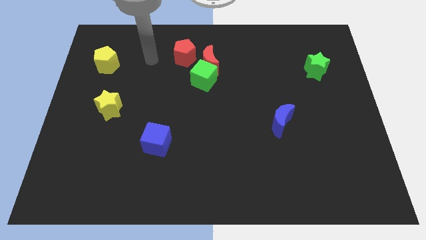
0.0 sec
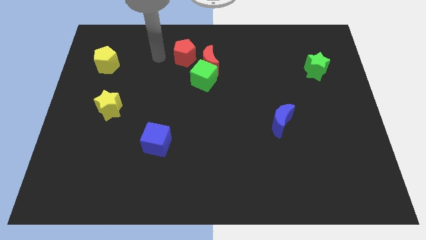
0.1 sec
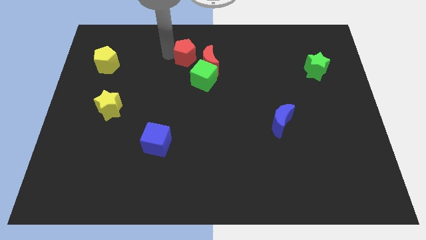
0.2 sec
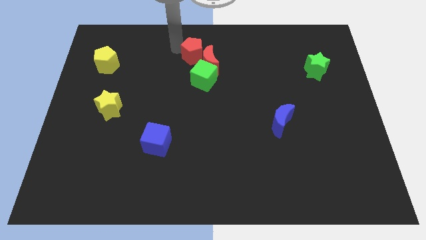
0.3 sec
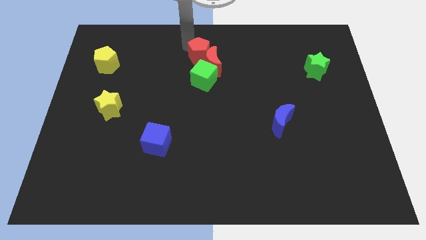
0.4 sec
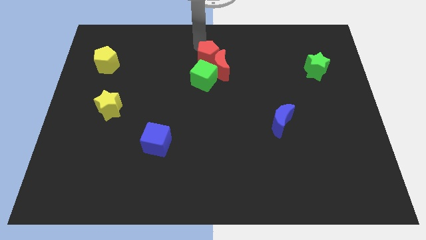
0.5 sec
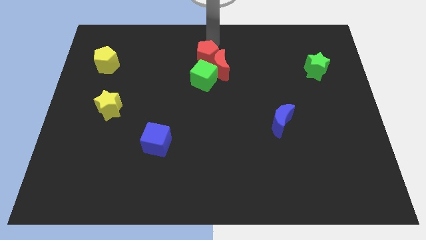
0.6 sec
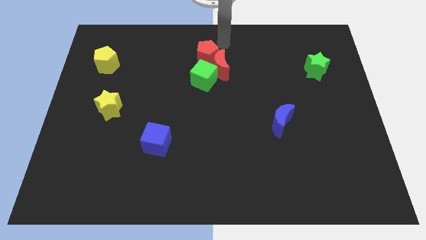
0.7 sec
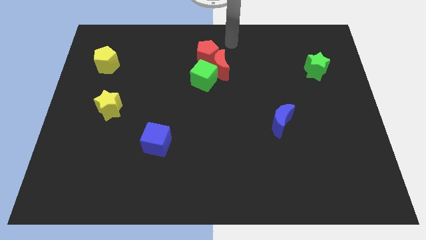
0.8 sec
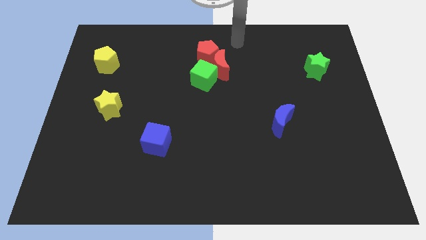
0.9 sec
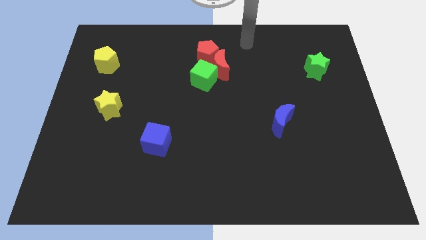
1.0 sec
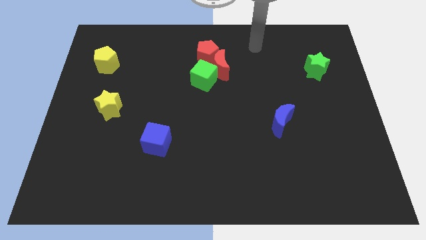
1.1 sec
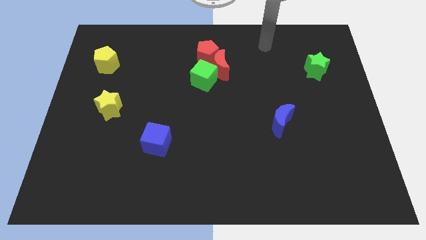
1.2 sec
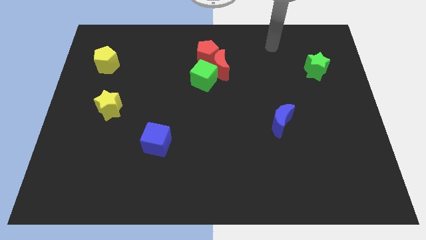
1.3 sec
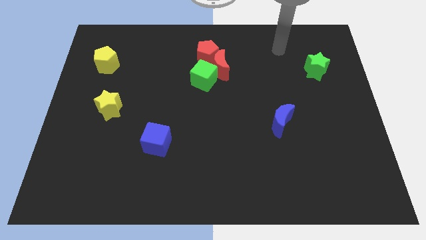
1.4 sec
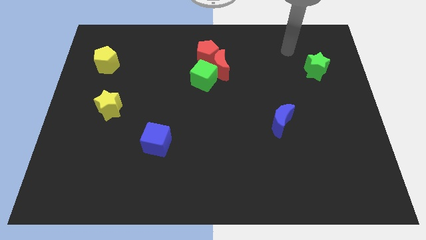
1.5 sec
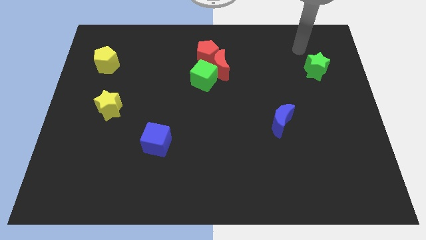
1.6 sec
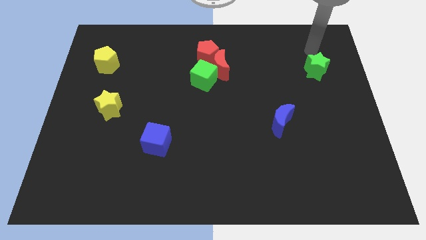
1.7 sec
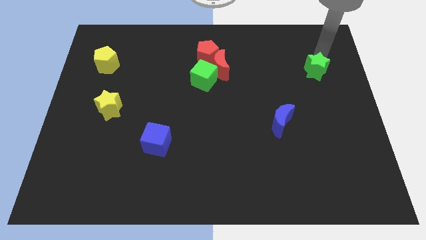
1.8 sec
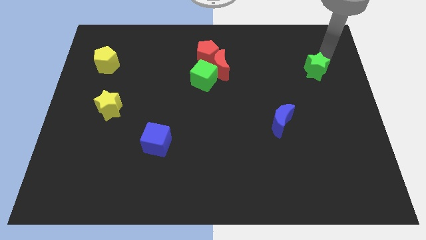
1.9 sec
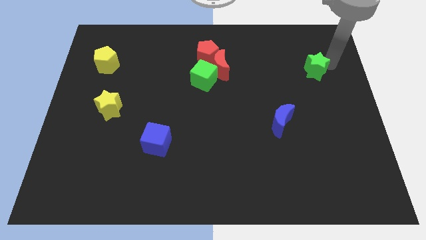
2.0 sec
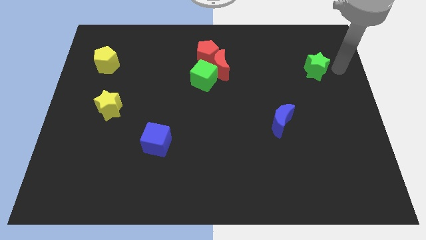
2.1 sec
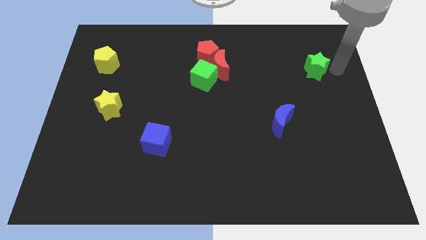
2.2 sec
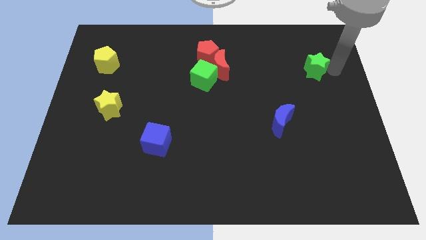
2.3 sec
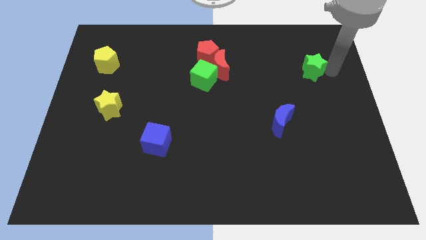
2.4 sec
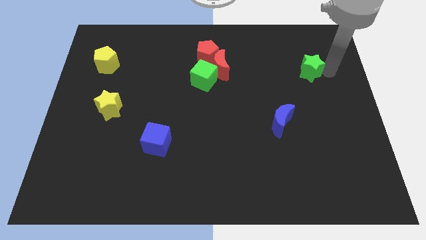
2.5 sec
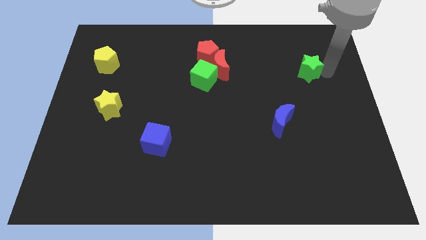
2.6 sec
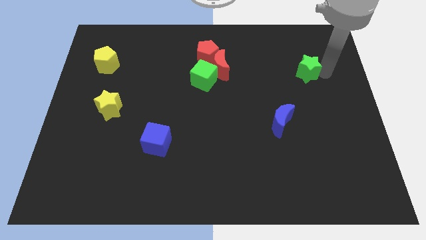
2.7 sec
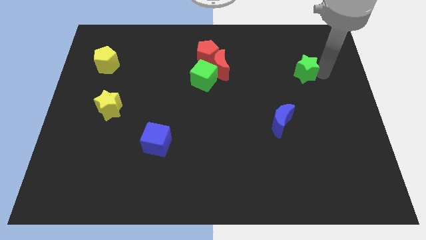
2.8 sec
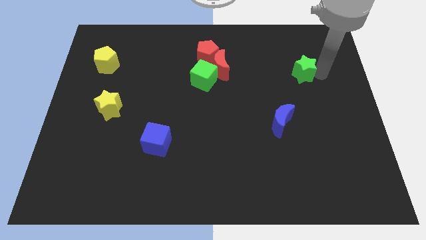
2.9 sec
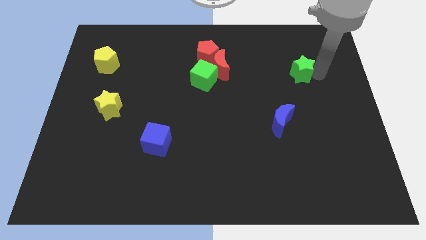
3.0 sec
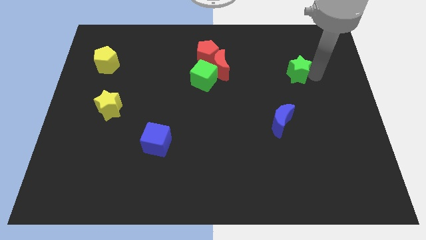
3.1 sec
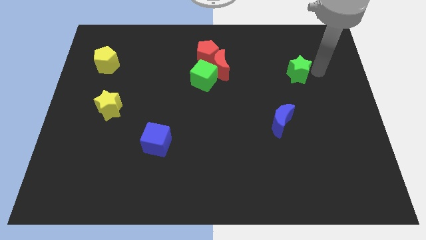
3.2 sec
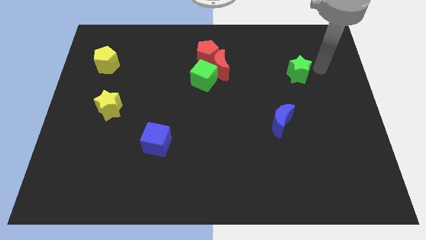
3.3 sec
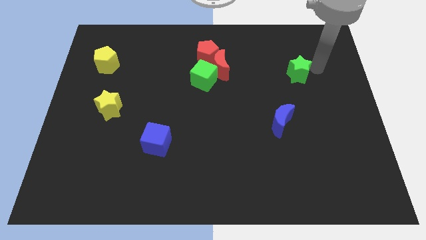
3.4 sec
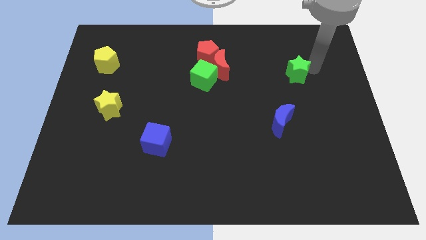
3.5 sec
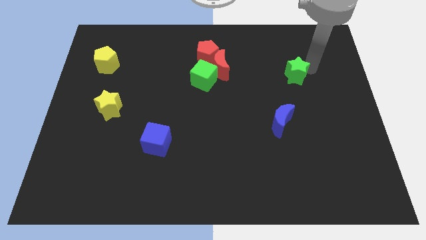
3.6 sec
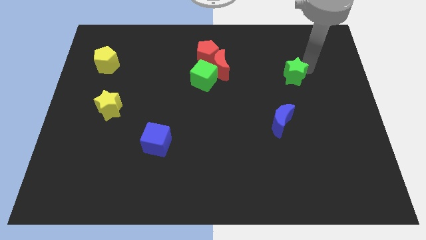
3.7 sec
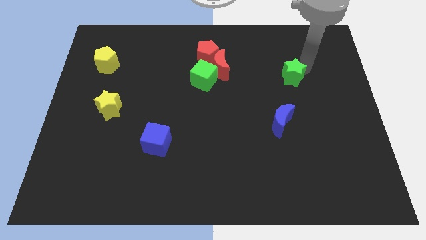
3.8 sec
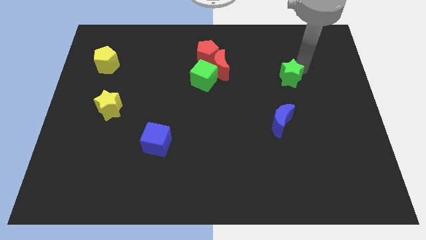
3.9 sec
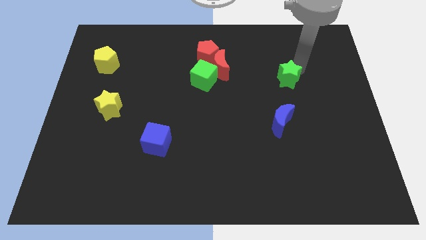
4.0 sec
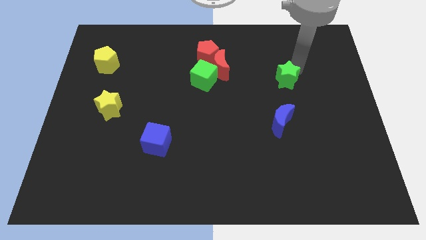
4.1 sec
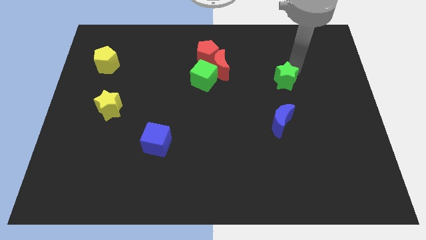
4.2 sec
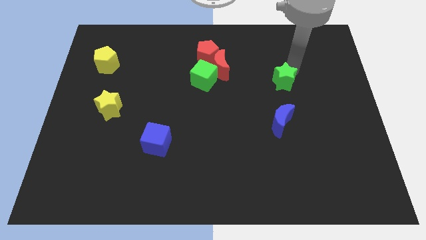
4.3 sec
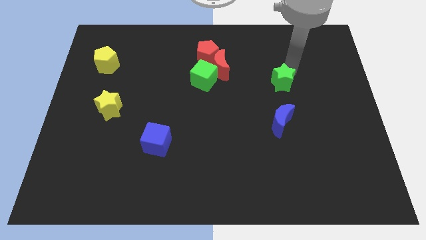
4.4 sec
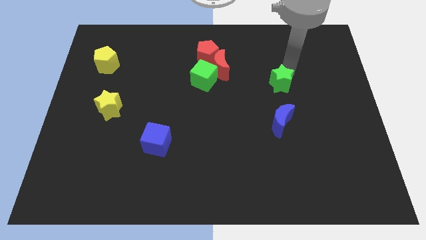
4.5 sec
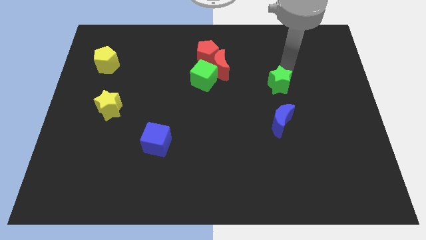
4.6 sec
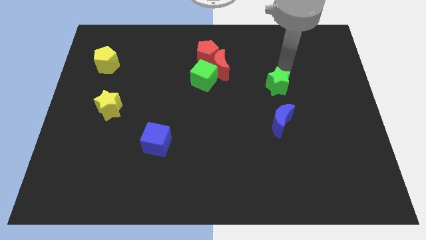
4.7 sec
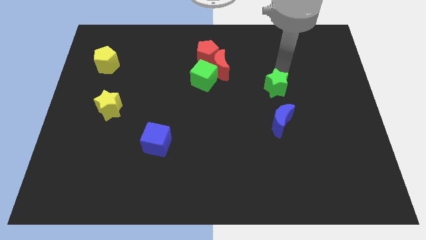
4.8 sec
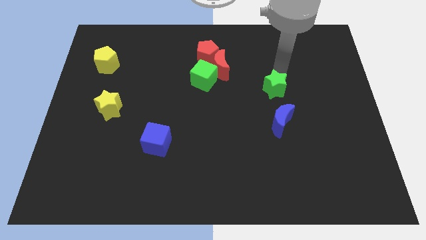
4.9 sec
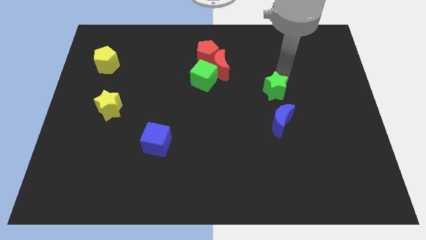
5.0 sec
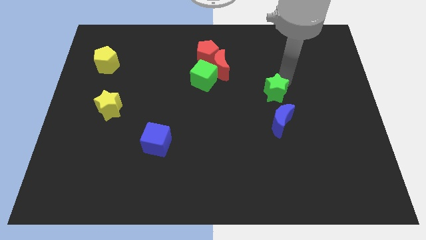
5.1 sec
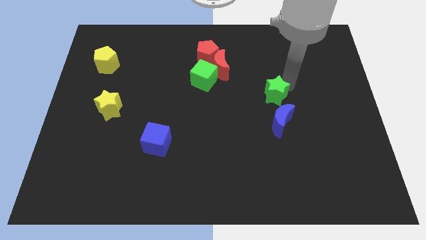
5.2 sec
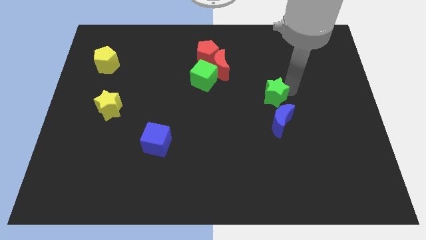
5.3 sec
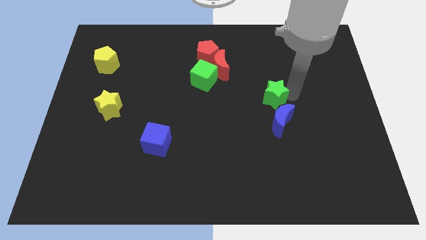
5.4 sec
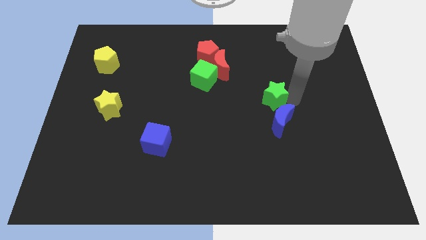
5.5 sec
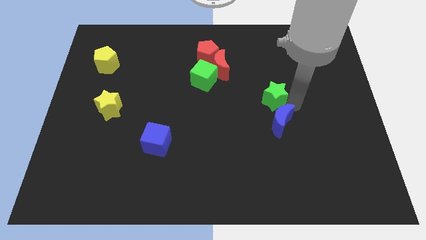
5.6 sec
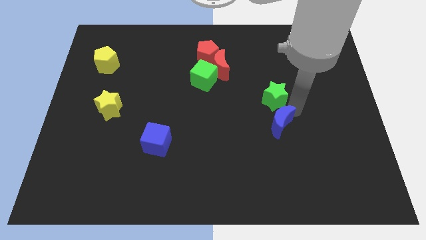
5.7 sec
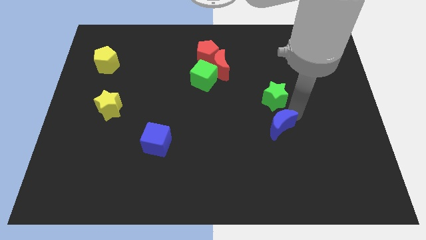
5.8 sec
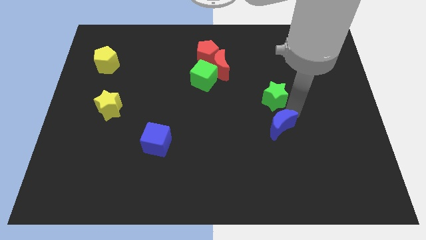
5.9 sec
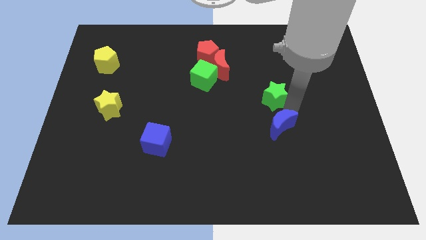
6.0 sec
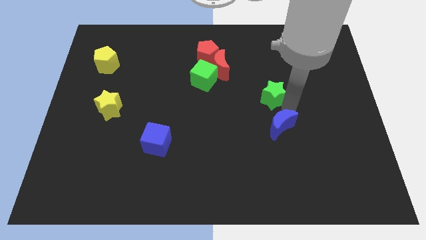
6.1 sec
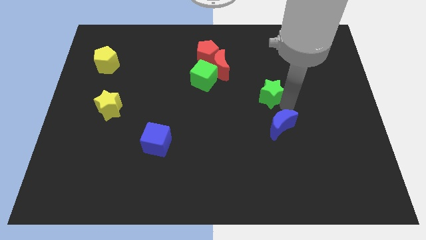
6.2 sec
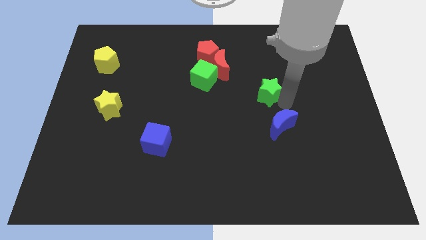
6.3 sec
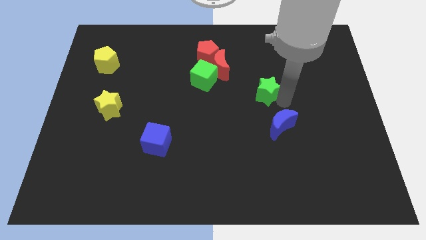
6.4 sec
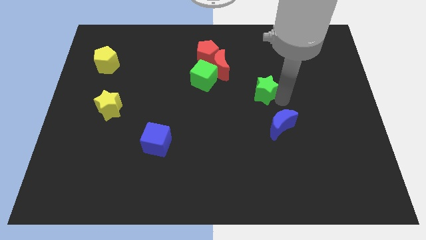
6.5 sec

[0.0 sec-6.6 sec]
slide the green star to the center

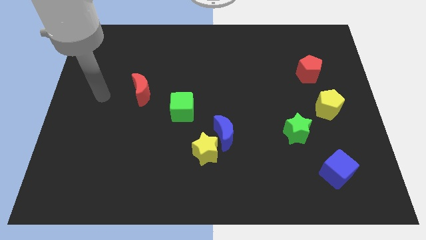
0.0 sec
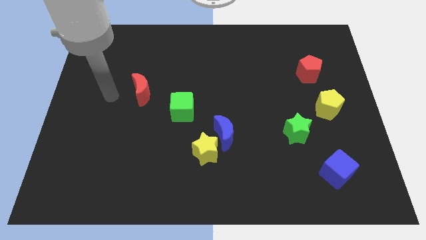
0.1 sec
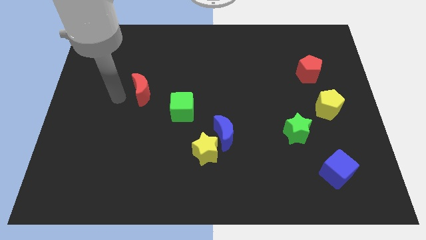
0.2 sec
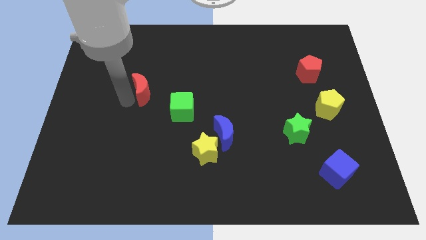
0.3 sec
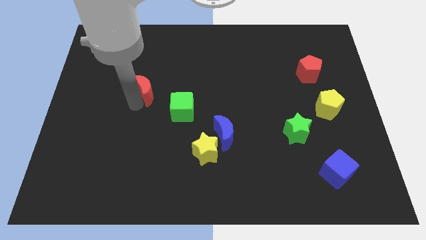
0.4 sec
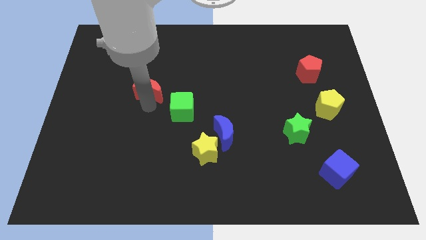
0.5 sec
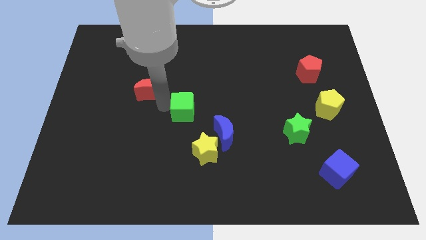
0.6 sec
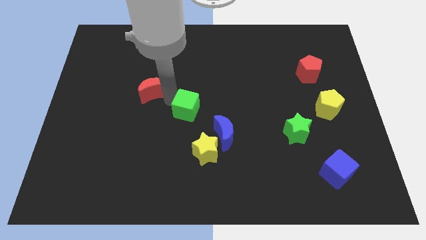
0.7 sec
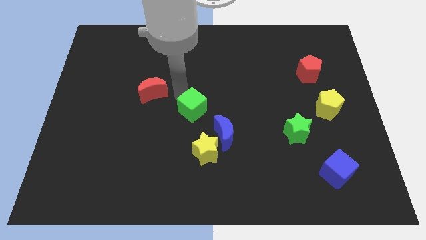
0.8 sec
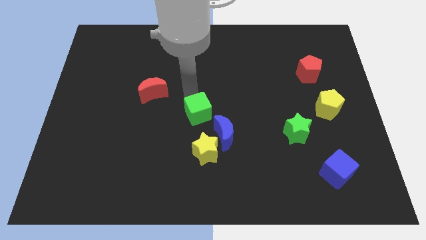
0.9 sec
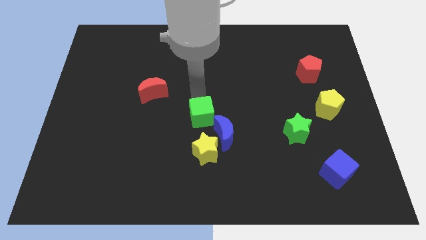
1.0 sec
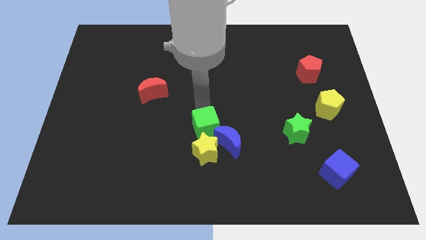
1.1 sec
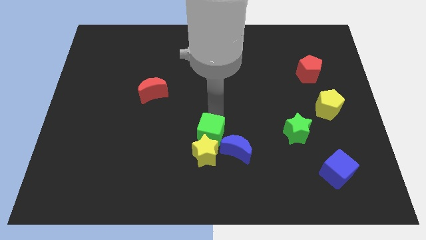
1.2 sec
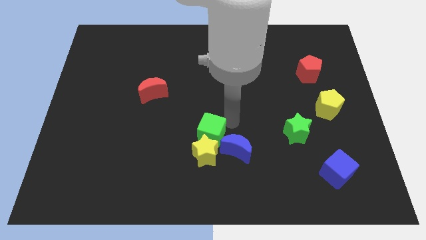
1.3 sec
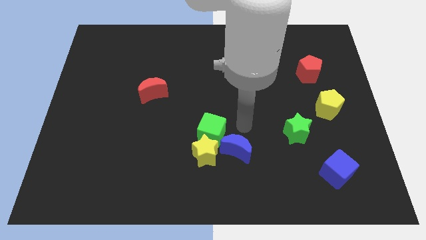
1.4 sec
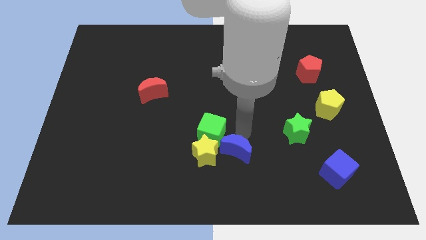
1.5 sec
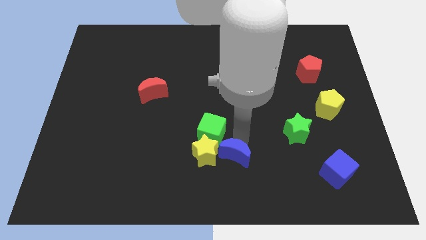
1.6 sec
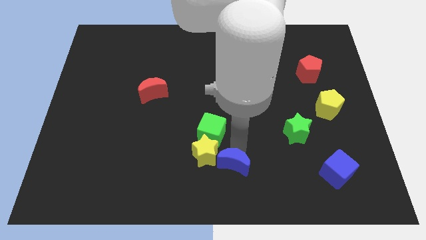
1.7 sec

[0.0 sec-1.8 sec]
slide the blue moon to the bottom side
